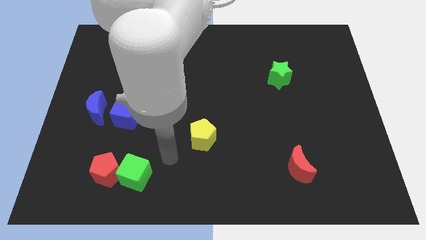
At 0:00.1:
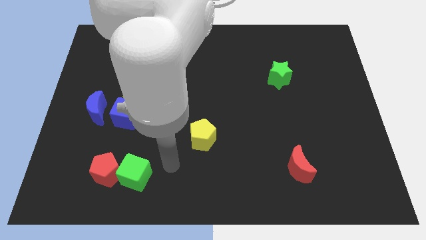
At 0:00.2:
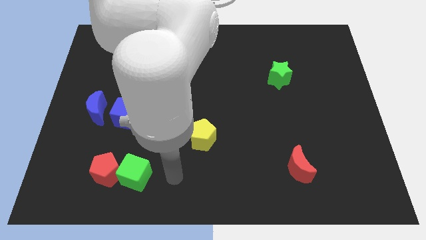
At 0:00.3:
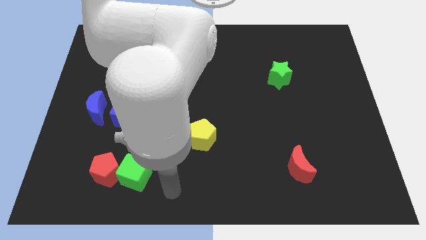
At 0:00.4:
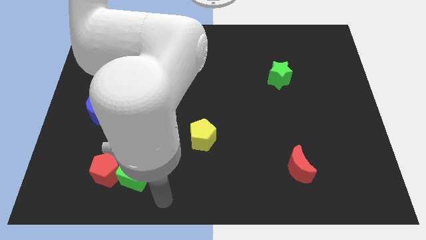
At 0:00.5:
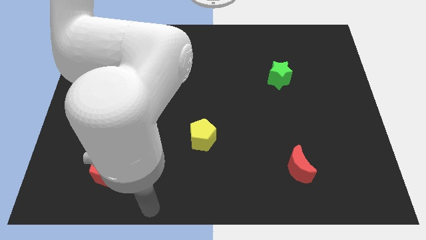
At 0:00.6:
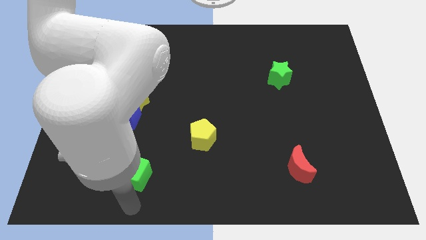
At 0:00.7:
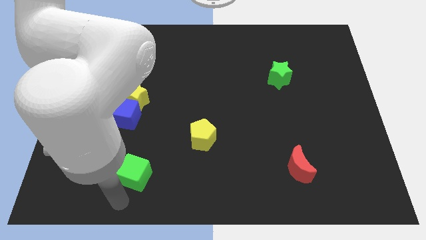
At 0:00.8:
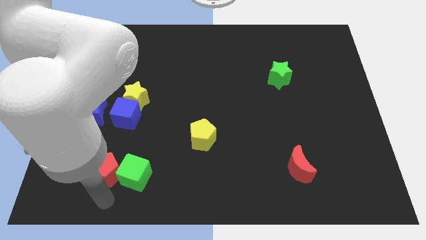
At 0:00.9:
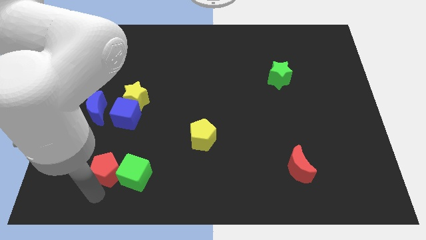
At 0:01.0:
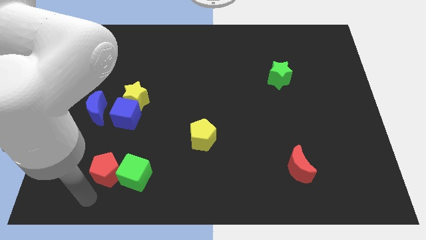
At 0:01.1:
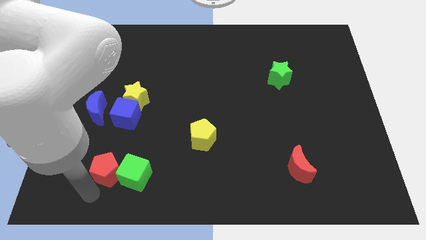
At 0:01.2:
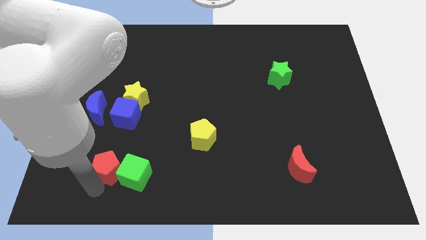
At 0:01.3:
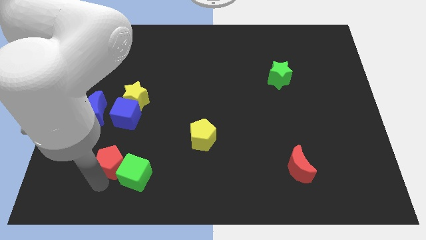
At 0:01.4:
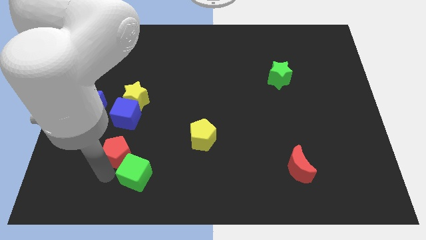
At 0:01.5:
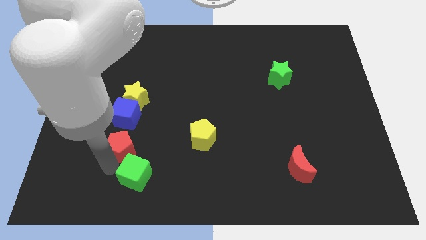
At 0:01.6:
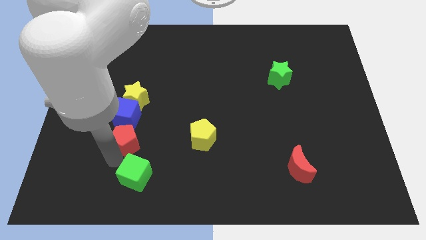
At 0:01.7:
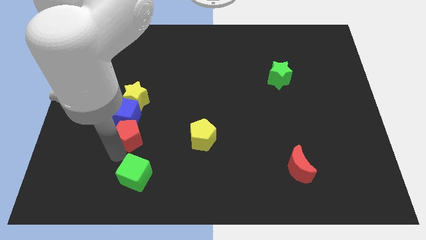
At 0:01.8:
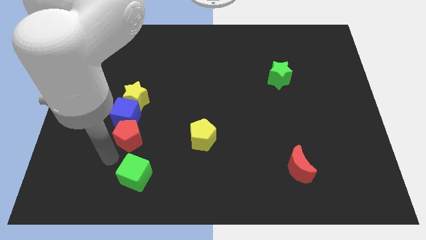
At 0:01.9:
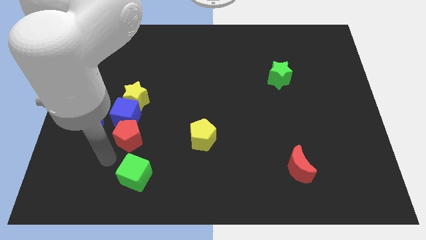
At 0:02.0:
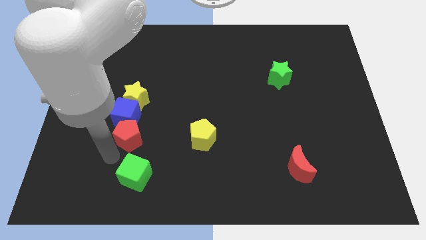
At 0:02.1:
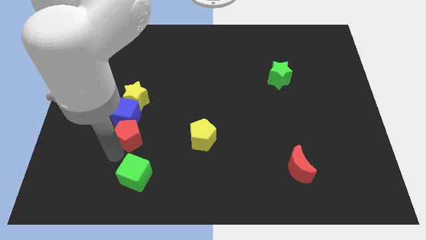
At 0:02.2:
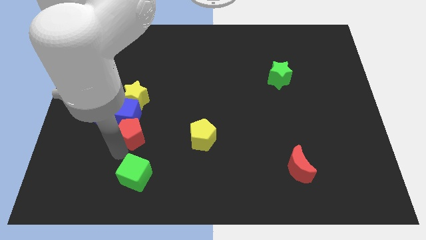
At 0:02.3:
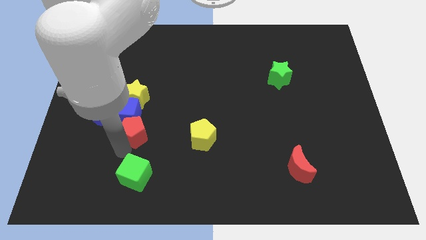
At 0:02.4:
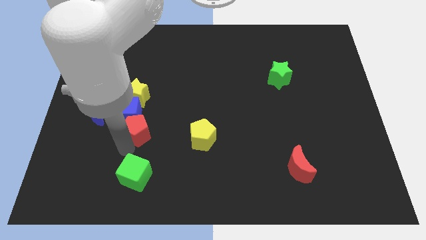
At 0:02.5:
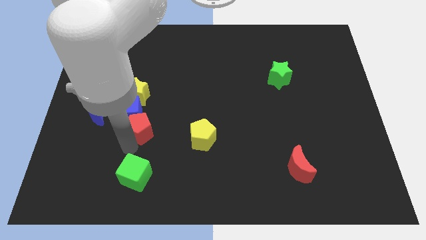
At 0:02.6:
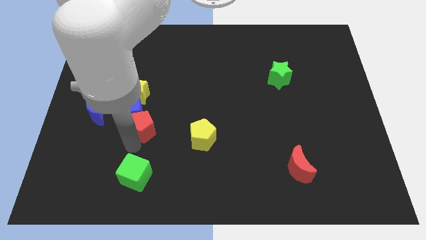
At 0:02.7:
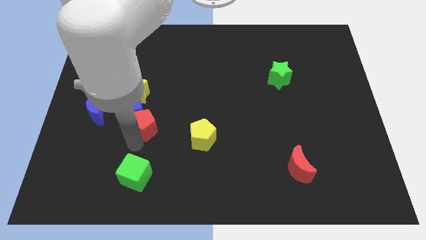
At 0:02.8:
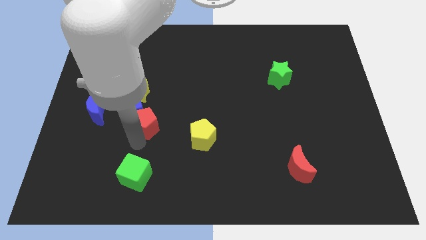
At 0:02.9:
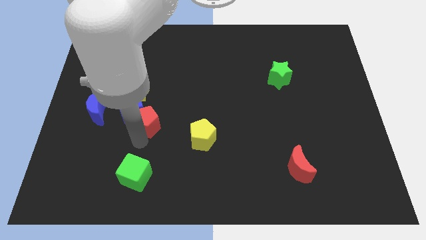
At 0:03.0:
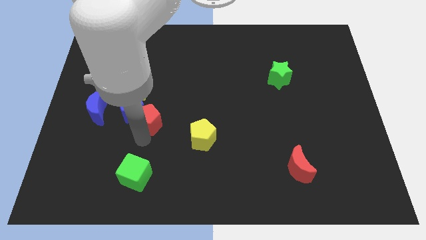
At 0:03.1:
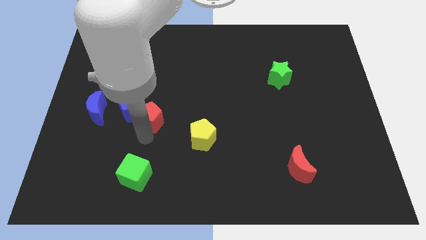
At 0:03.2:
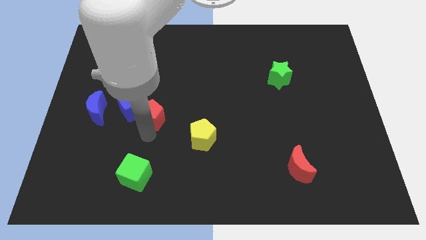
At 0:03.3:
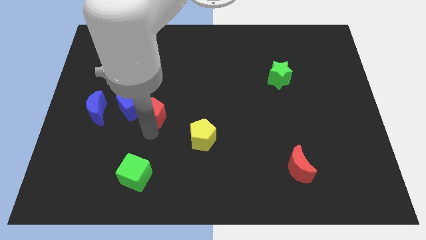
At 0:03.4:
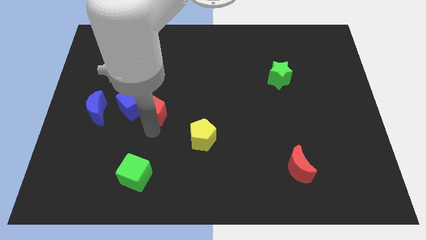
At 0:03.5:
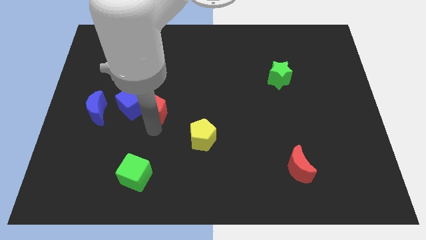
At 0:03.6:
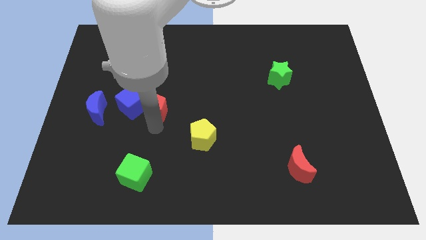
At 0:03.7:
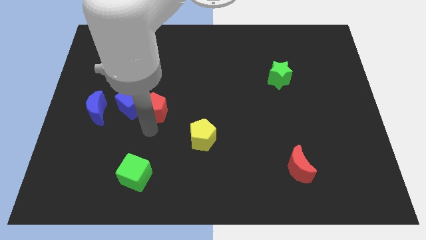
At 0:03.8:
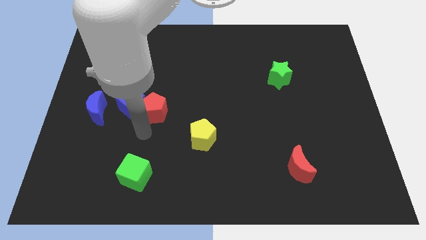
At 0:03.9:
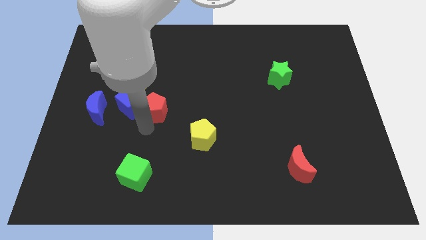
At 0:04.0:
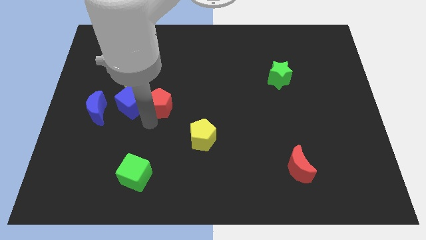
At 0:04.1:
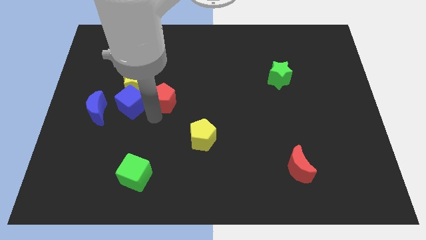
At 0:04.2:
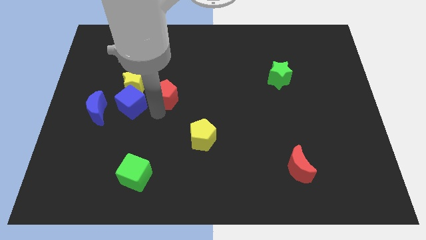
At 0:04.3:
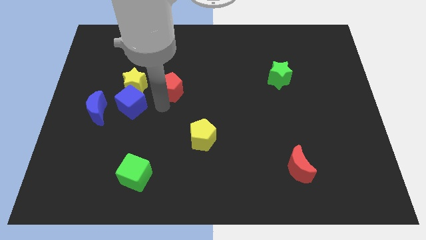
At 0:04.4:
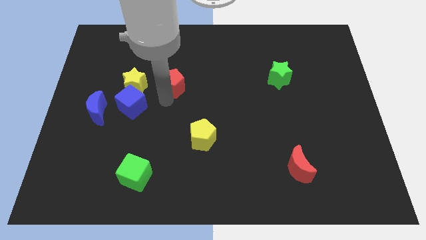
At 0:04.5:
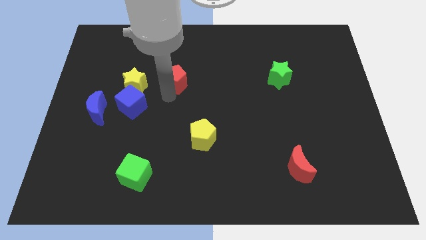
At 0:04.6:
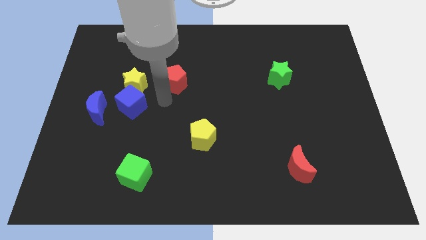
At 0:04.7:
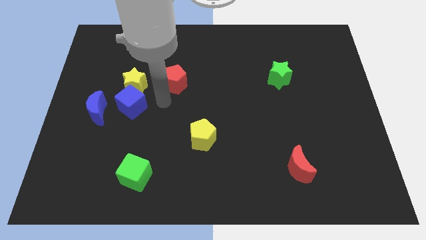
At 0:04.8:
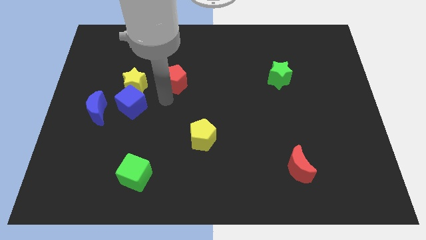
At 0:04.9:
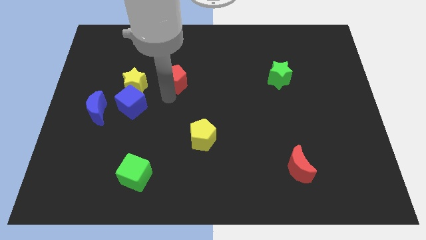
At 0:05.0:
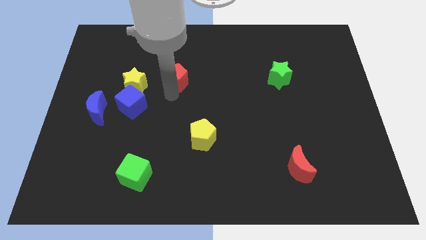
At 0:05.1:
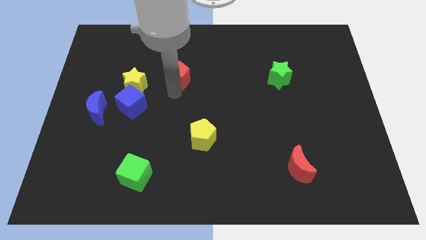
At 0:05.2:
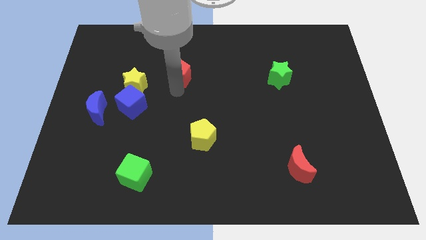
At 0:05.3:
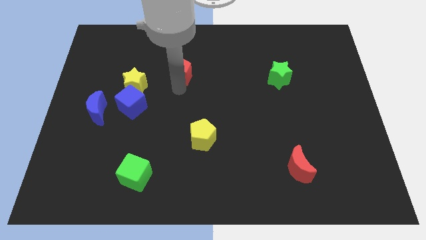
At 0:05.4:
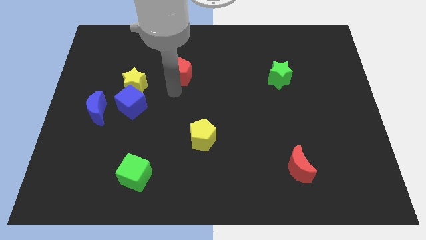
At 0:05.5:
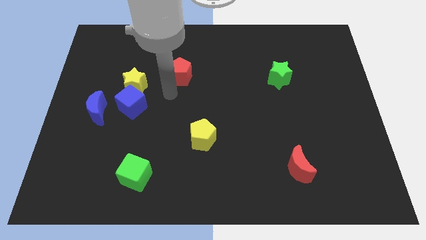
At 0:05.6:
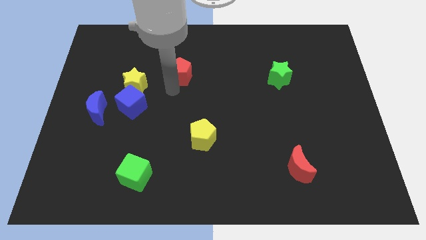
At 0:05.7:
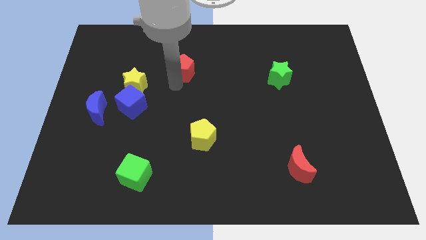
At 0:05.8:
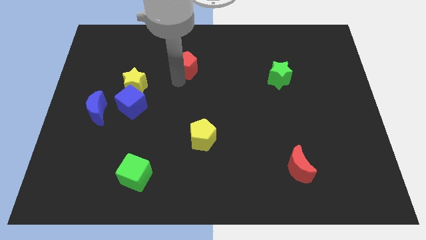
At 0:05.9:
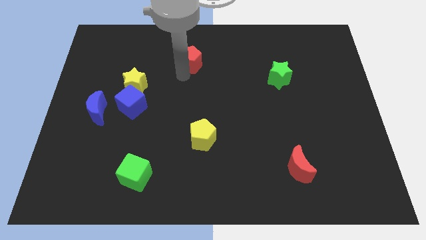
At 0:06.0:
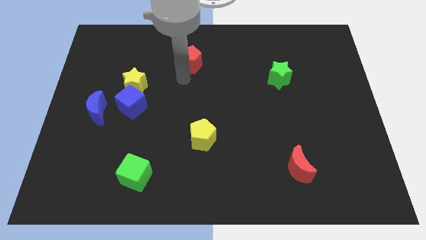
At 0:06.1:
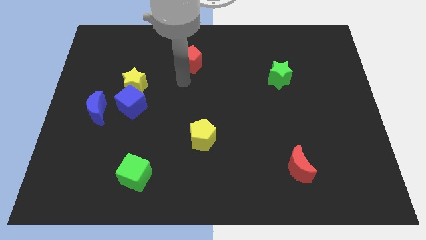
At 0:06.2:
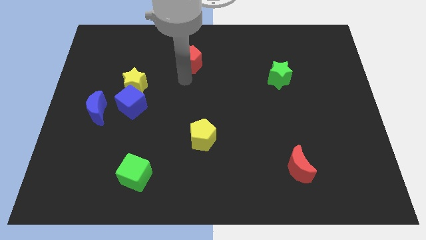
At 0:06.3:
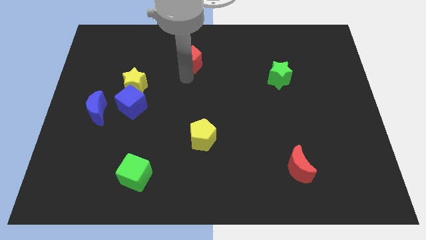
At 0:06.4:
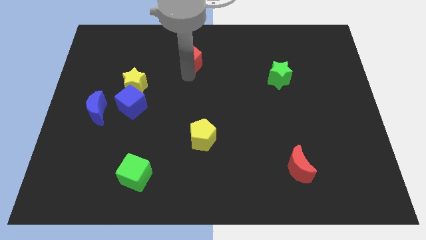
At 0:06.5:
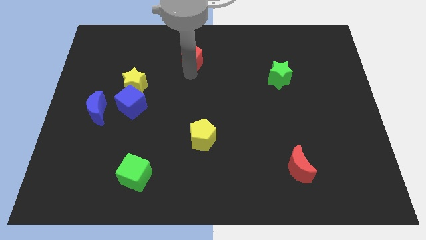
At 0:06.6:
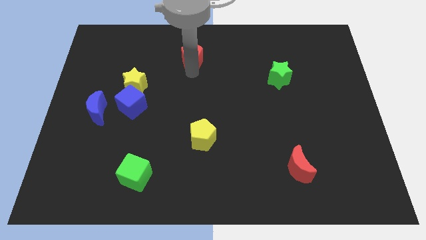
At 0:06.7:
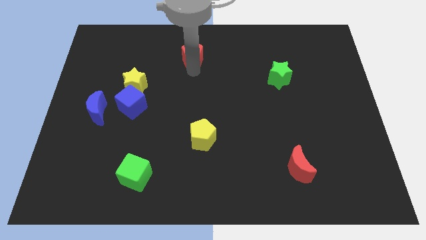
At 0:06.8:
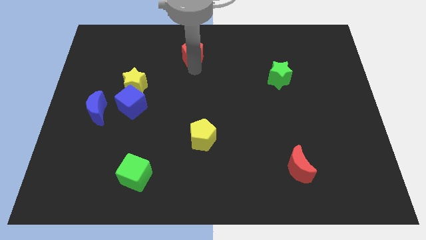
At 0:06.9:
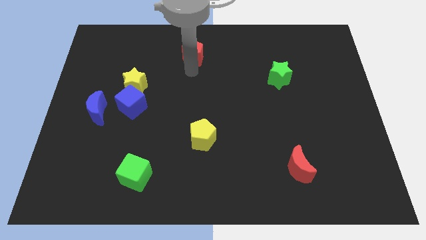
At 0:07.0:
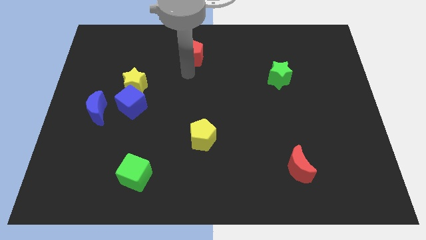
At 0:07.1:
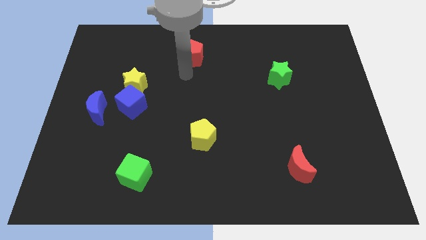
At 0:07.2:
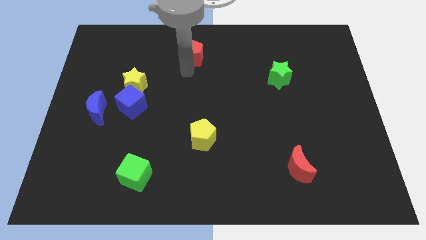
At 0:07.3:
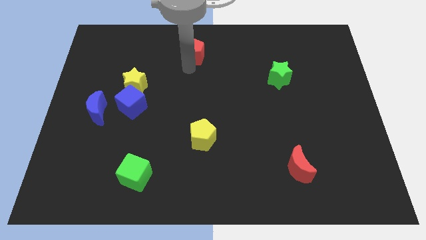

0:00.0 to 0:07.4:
push the red pentagon to the towards your base
